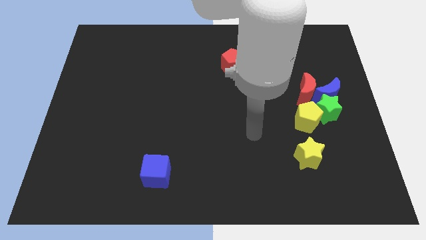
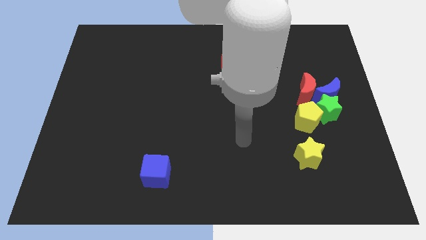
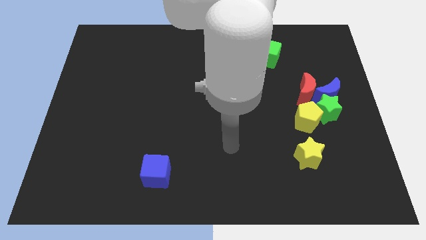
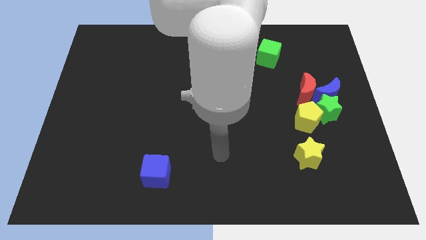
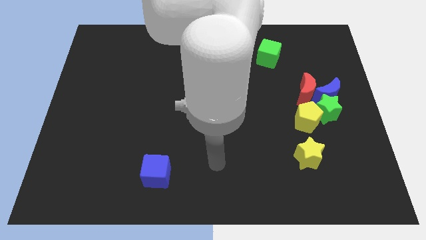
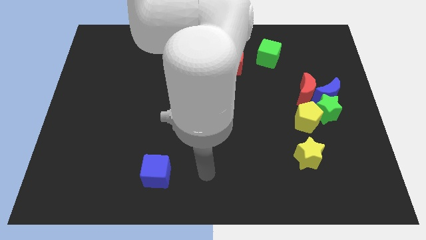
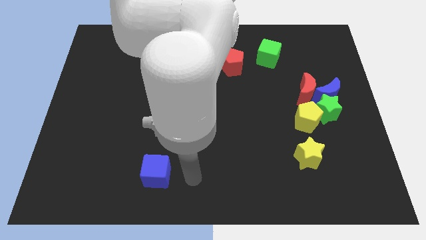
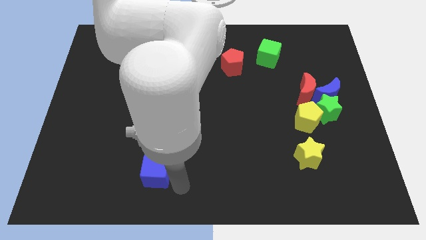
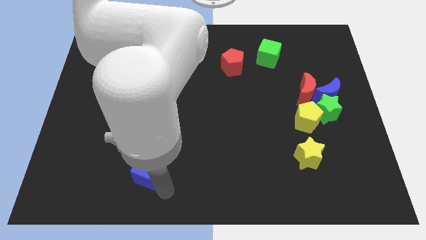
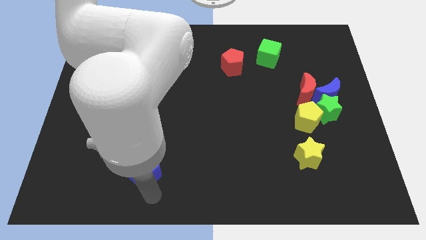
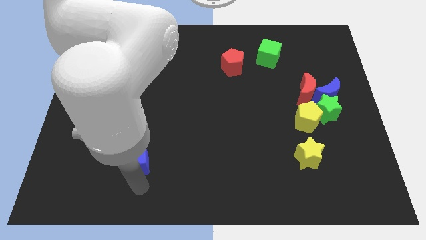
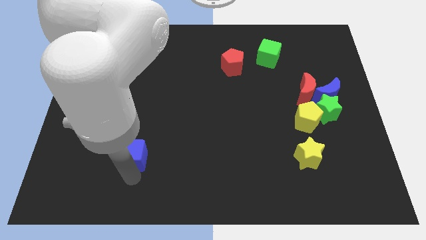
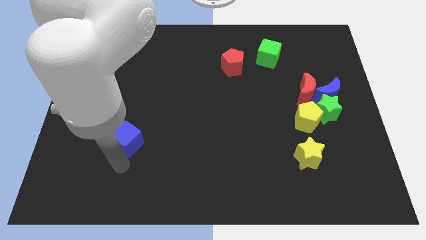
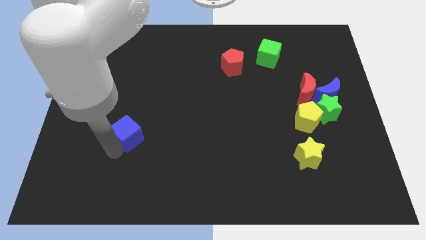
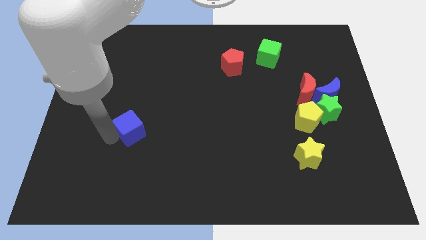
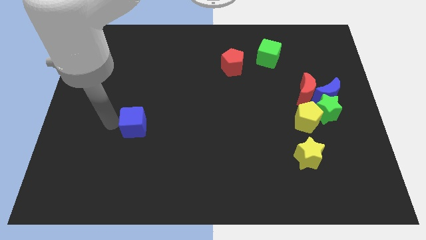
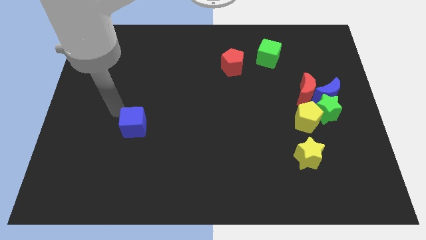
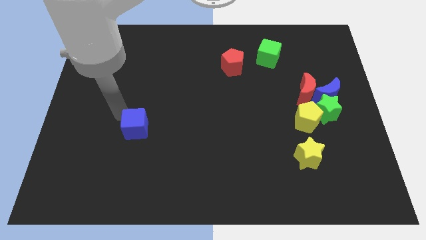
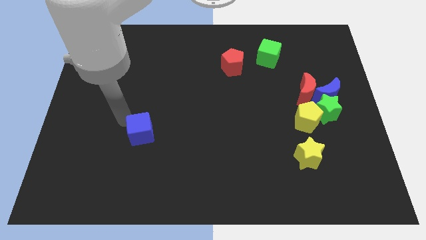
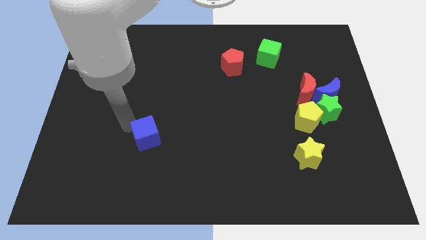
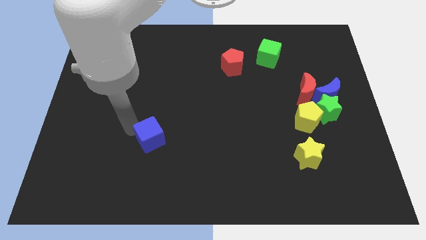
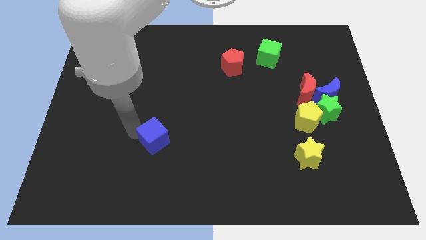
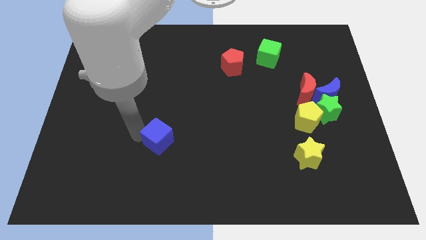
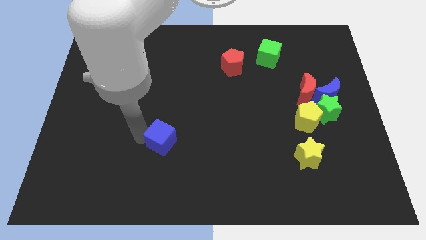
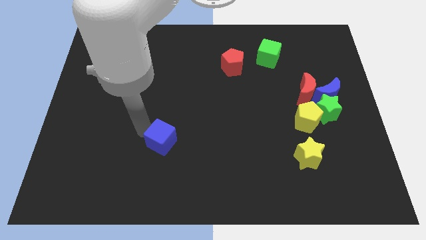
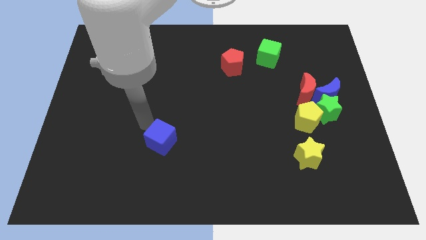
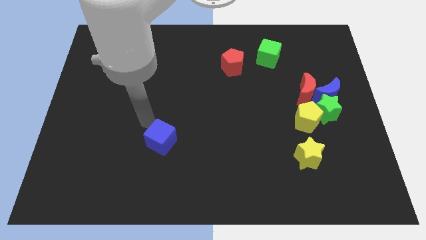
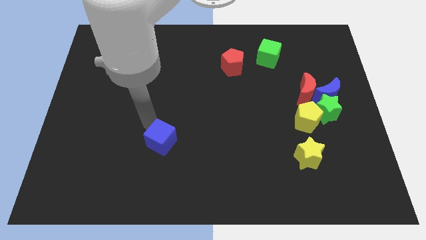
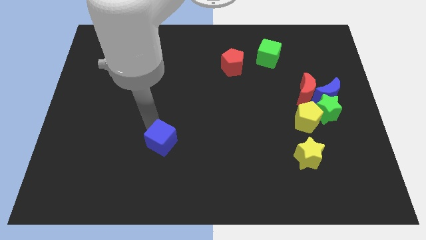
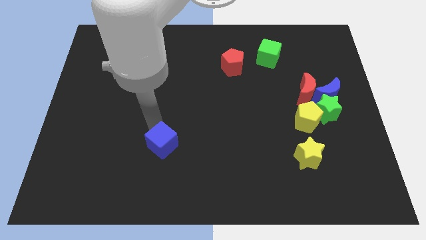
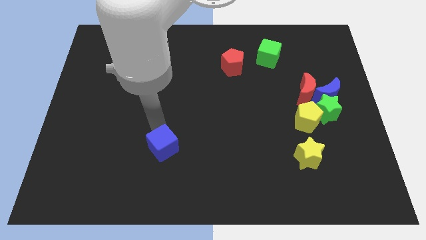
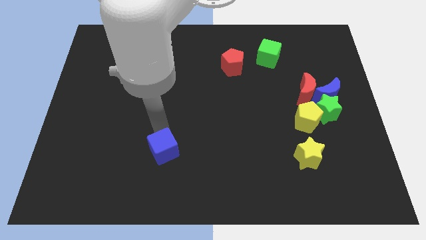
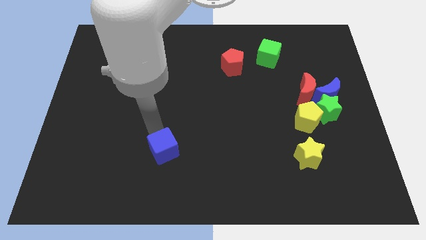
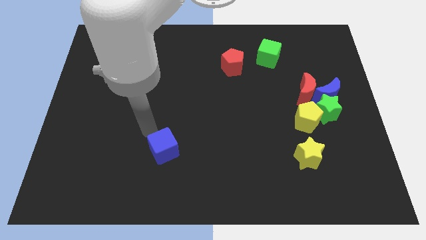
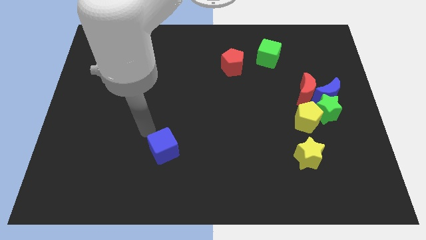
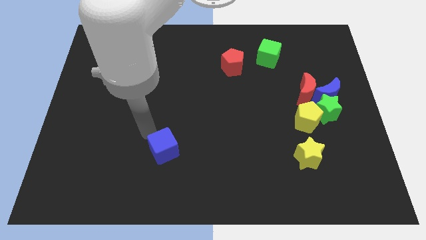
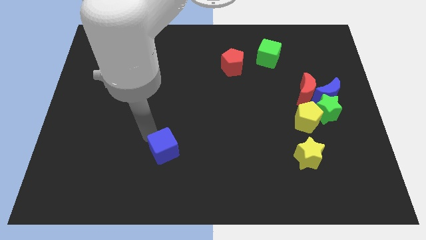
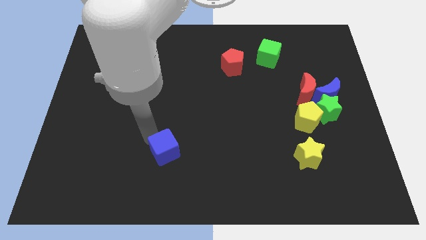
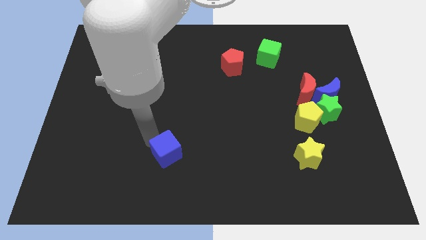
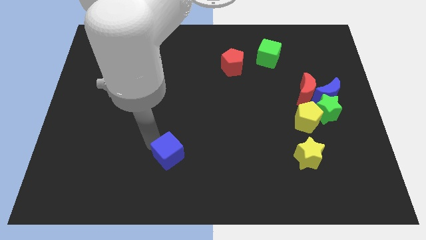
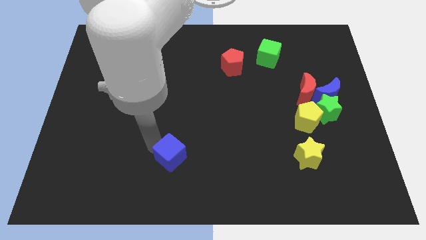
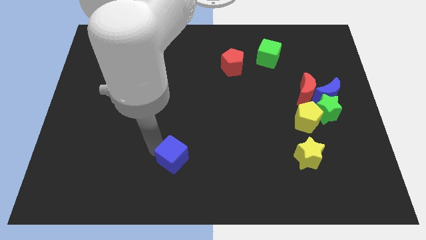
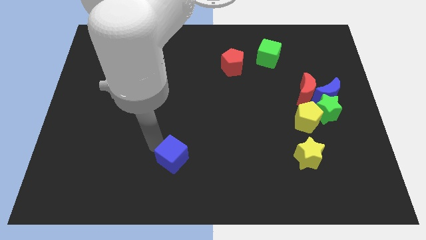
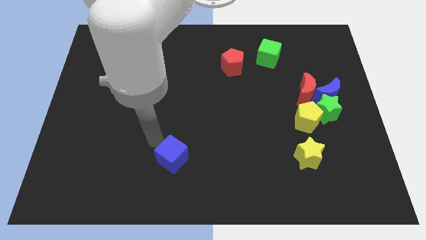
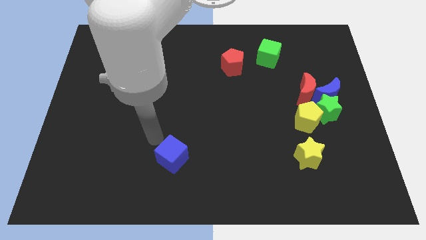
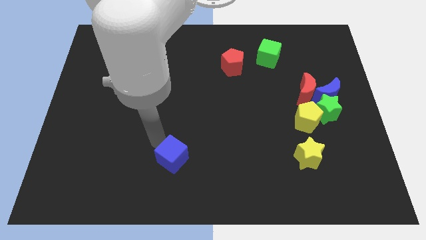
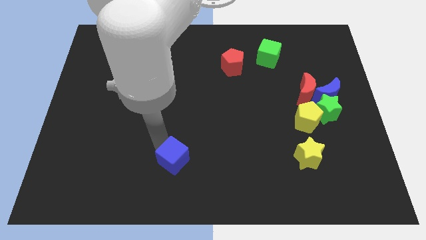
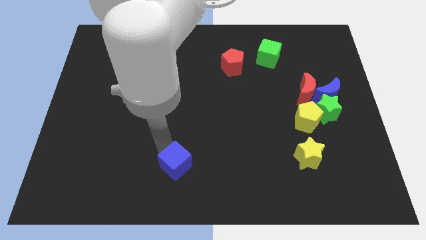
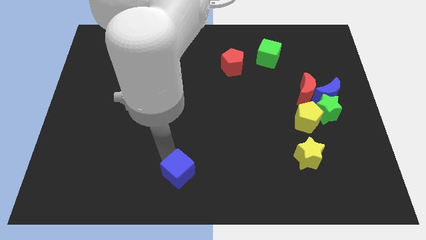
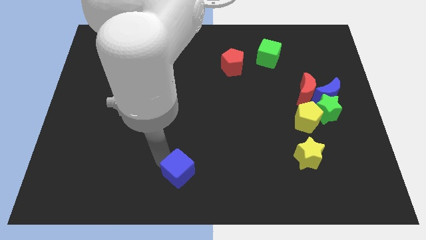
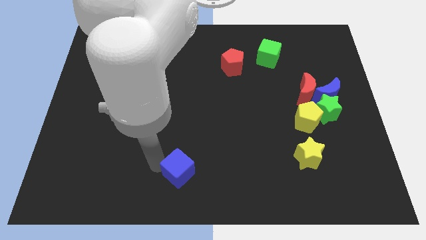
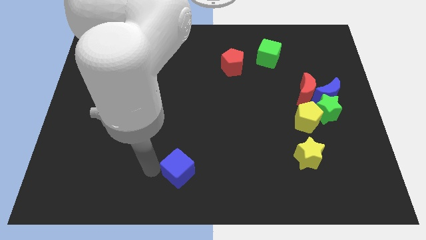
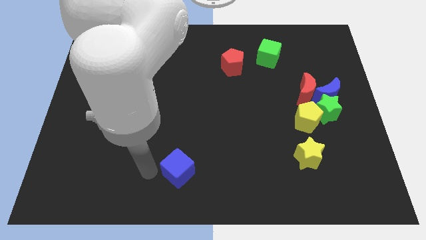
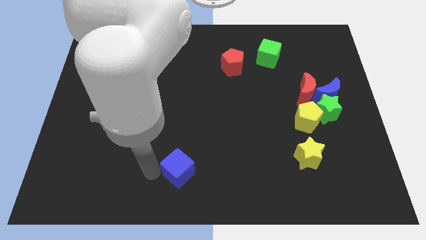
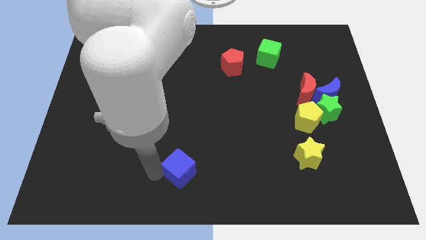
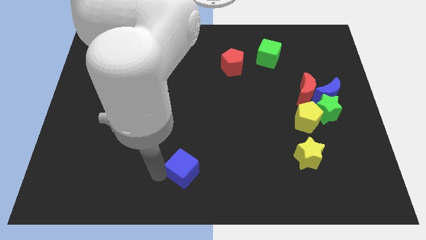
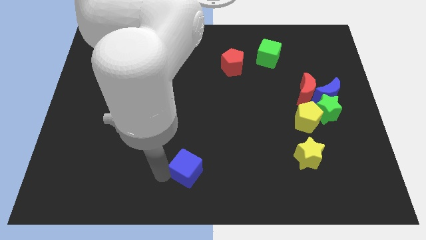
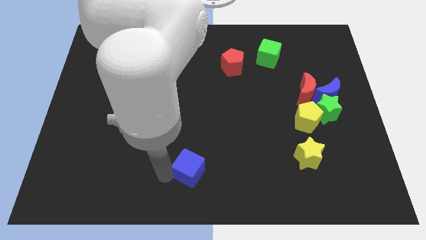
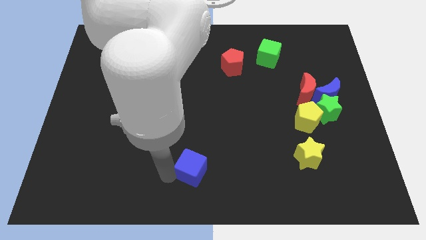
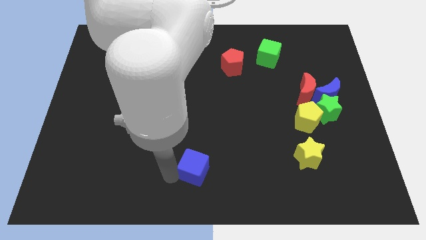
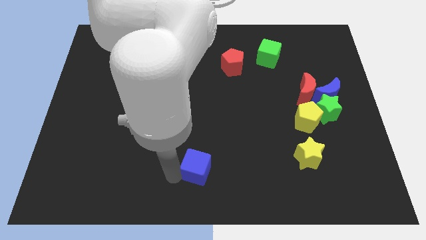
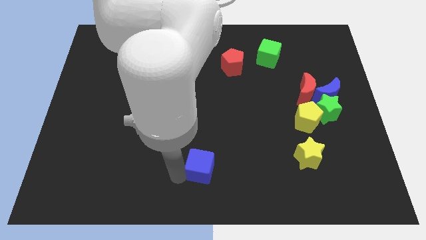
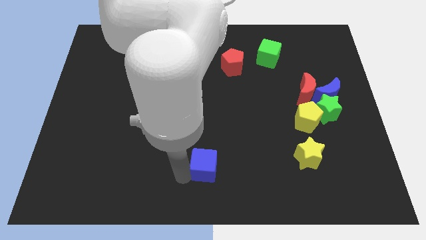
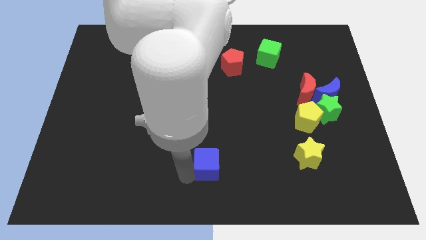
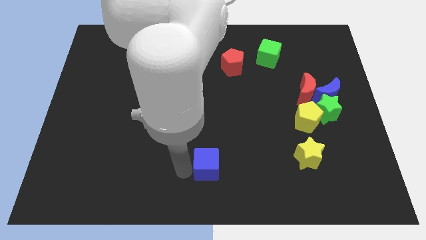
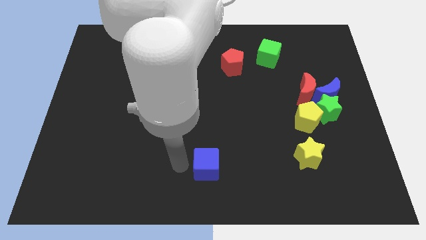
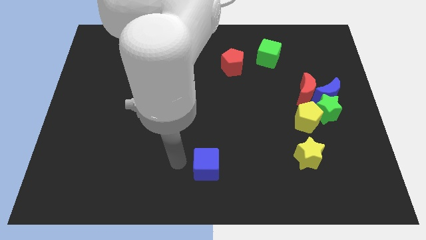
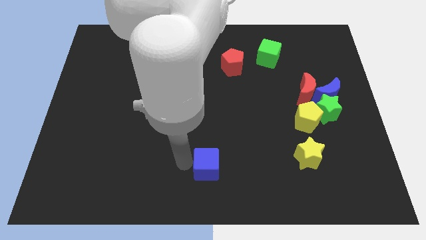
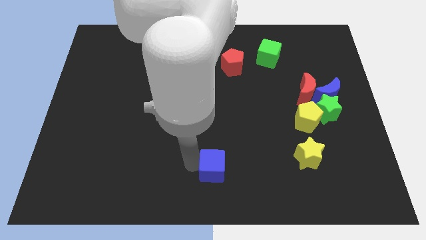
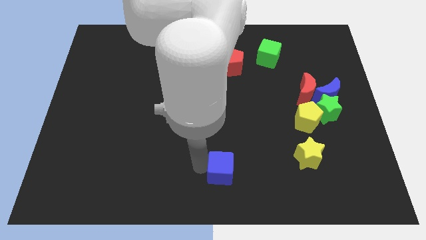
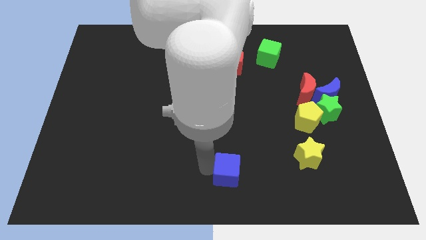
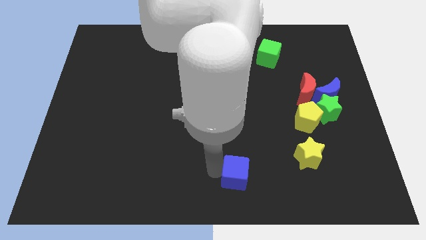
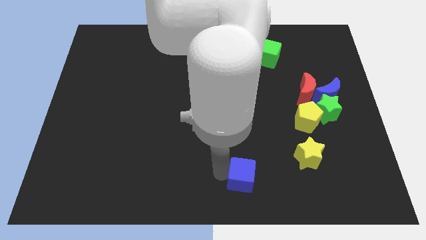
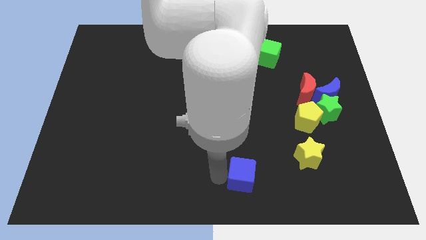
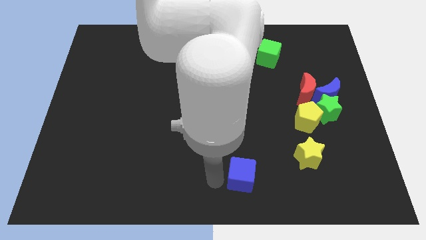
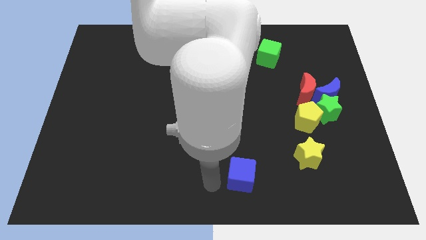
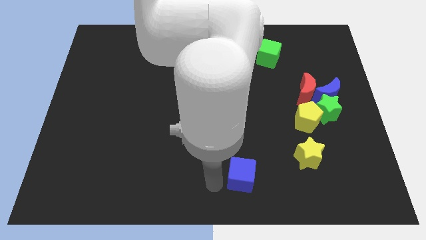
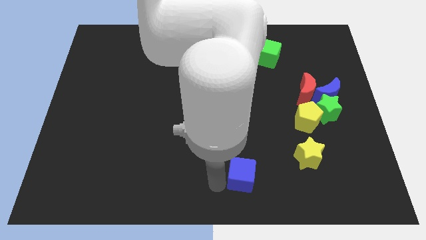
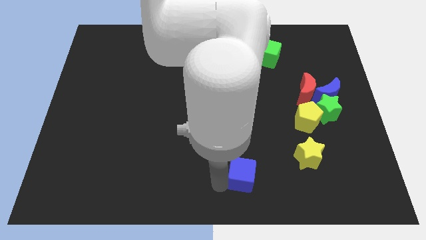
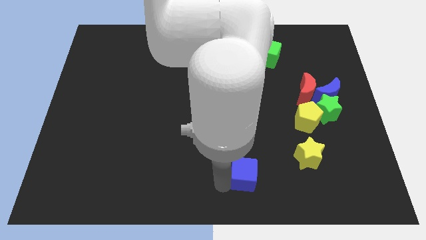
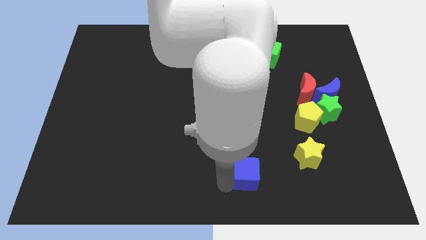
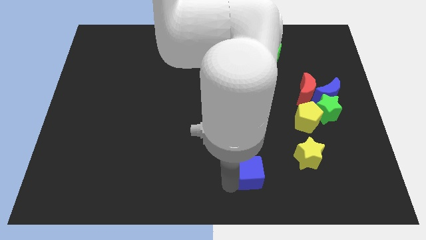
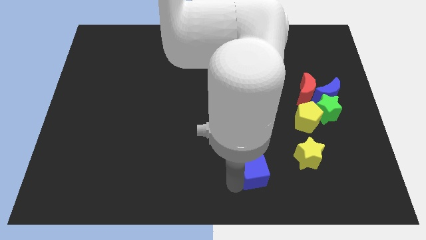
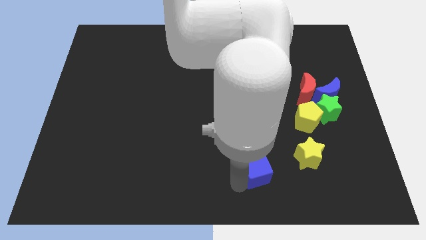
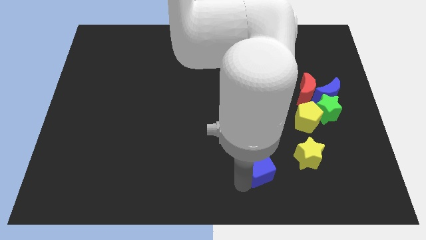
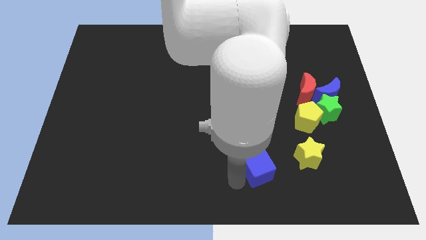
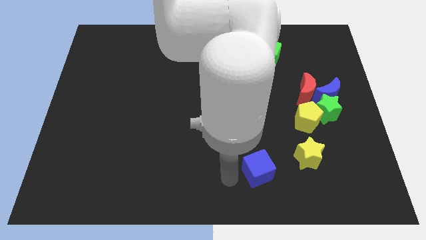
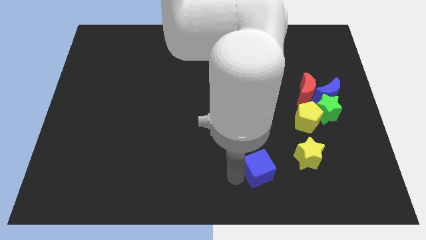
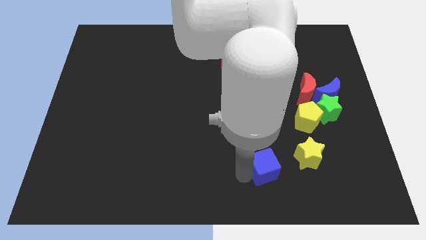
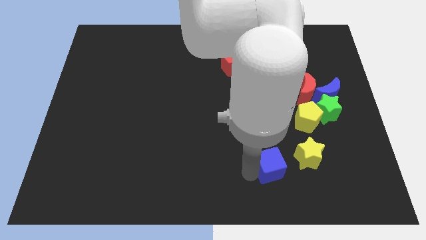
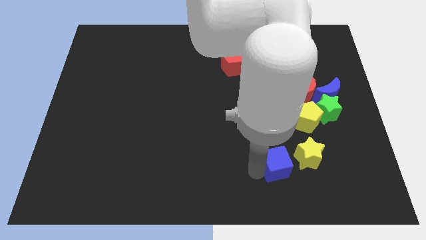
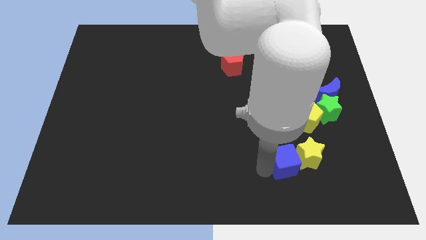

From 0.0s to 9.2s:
put the blue cube close to the yellow star
